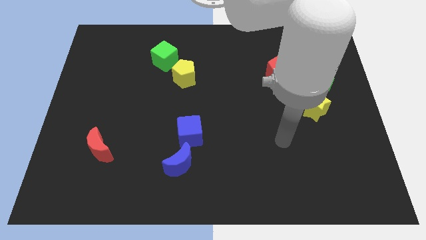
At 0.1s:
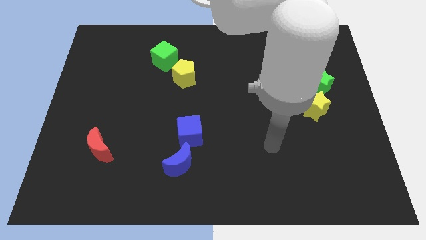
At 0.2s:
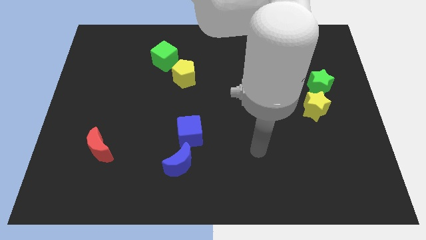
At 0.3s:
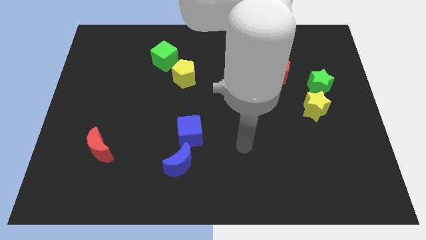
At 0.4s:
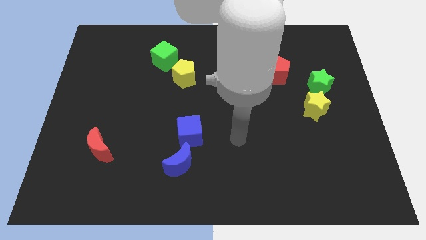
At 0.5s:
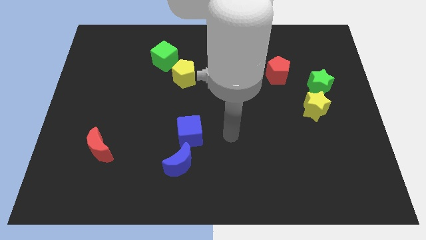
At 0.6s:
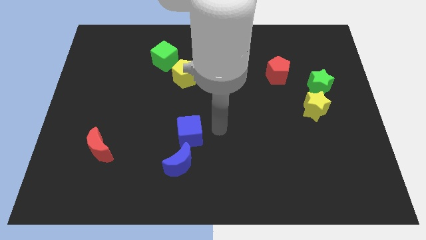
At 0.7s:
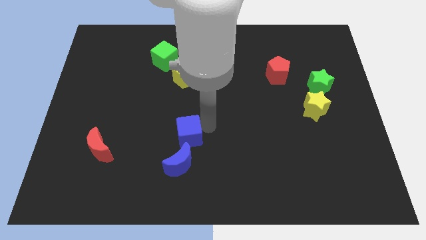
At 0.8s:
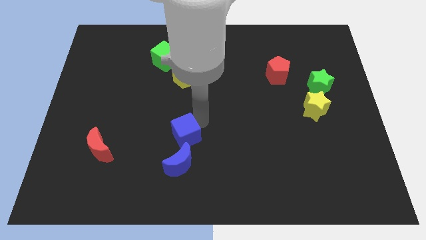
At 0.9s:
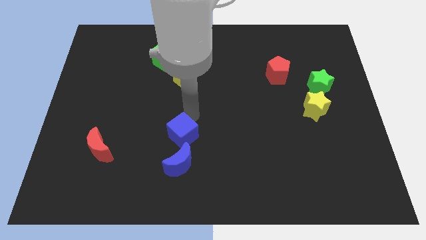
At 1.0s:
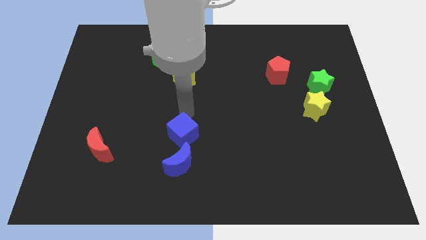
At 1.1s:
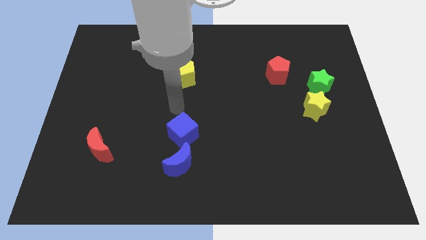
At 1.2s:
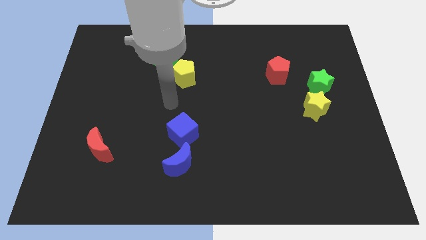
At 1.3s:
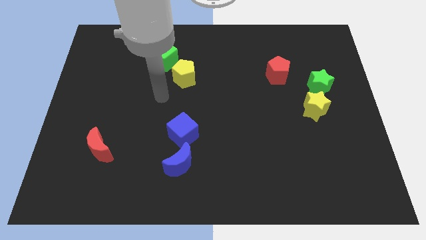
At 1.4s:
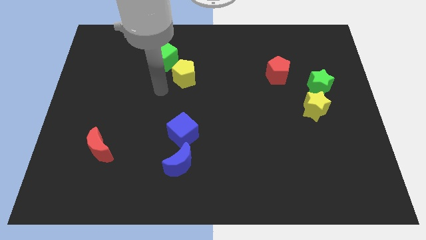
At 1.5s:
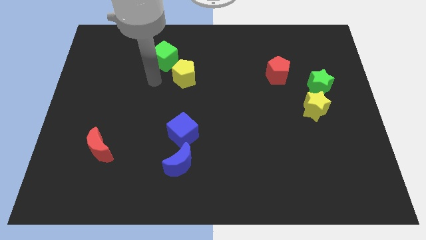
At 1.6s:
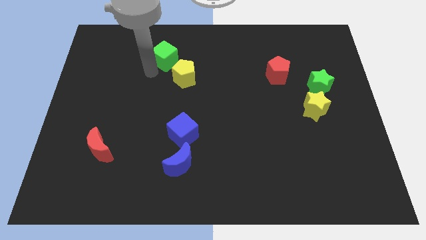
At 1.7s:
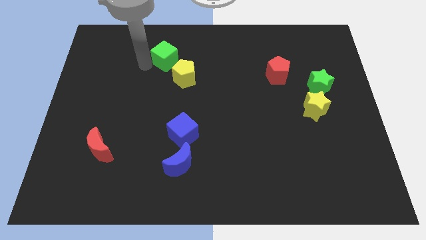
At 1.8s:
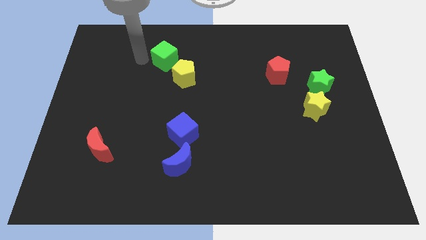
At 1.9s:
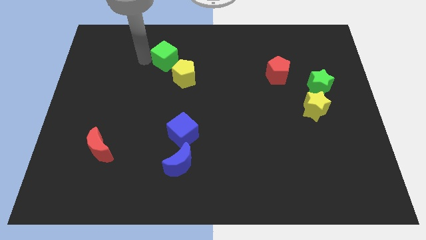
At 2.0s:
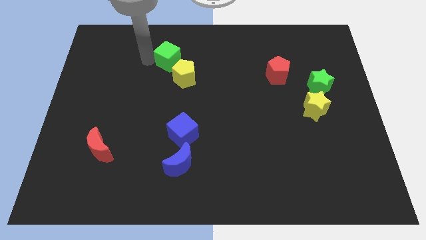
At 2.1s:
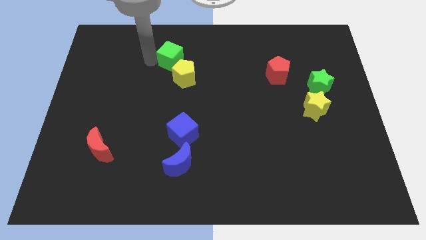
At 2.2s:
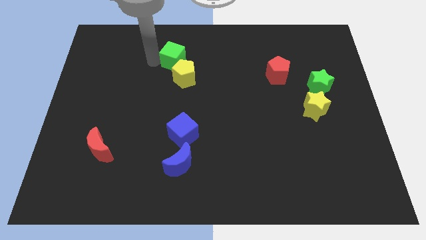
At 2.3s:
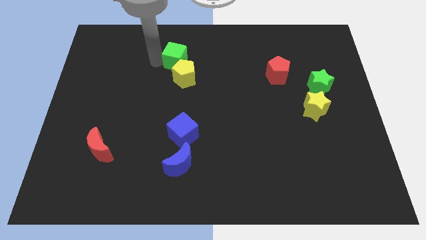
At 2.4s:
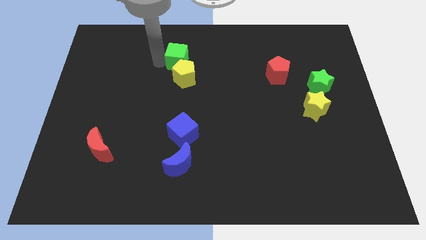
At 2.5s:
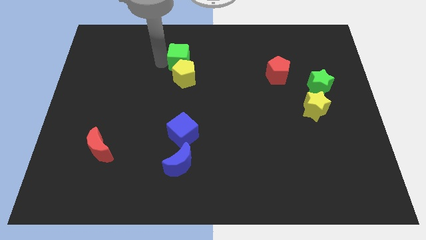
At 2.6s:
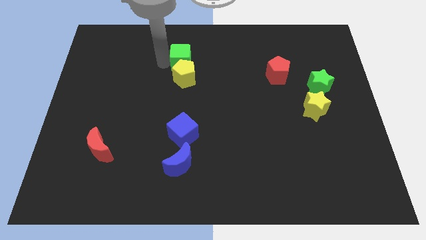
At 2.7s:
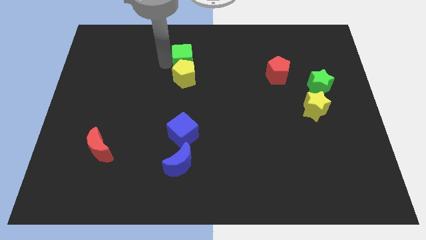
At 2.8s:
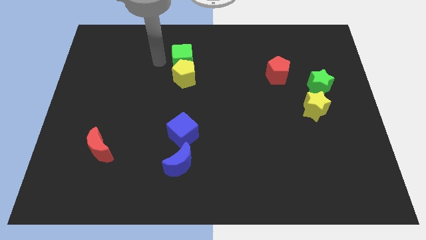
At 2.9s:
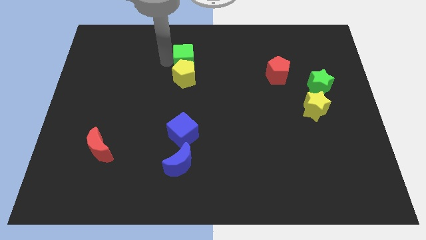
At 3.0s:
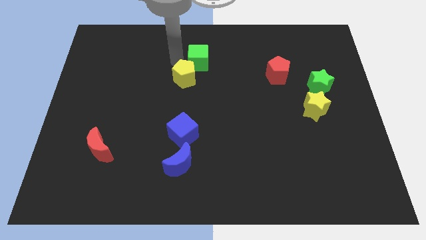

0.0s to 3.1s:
push the green cube a little right

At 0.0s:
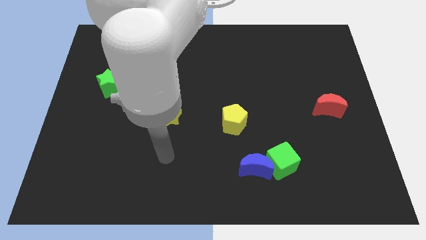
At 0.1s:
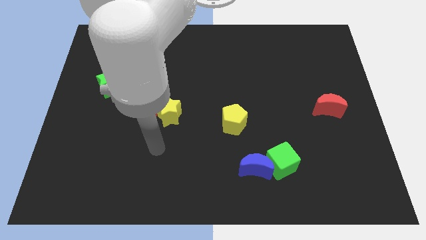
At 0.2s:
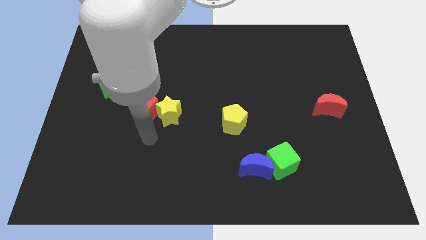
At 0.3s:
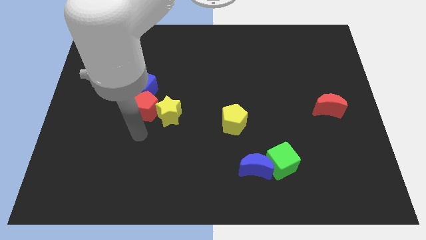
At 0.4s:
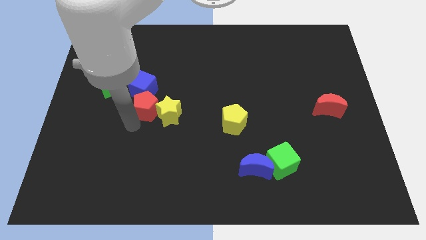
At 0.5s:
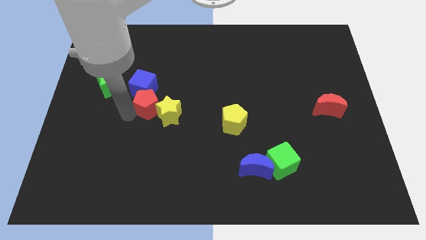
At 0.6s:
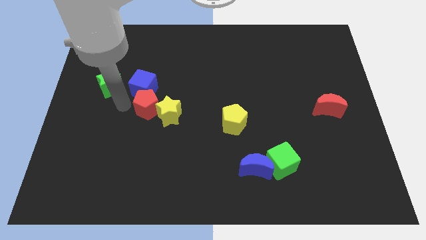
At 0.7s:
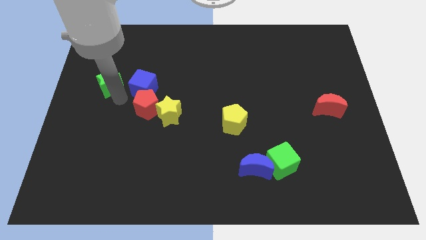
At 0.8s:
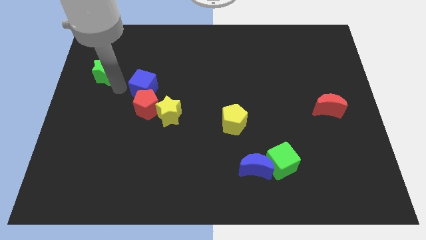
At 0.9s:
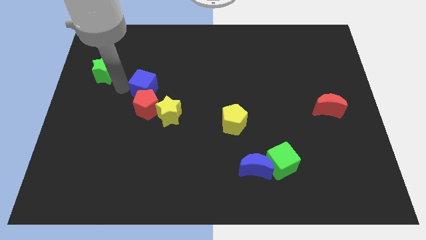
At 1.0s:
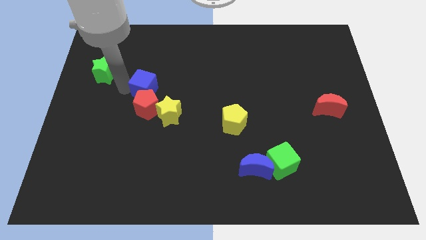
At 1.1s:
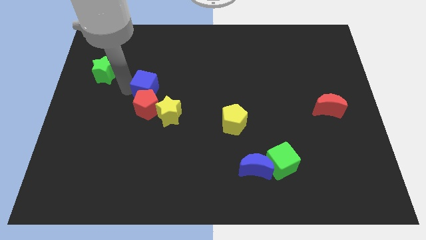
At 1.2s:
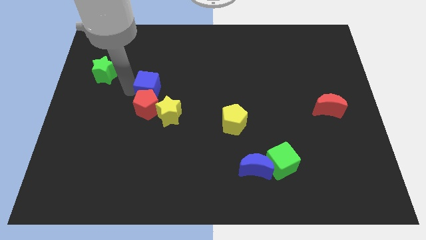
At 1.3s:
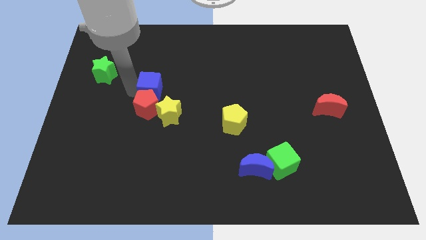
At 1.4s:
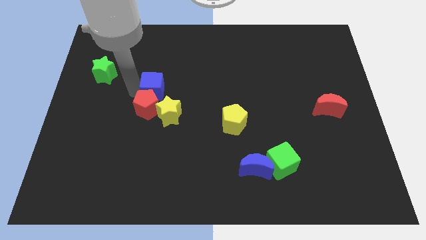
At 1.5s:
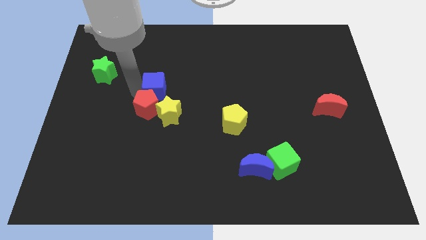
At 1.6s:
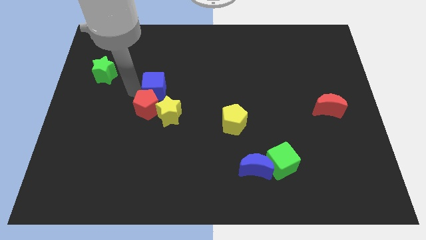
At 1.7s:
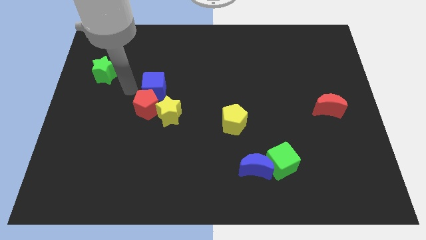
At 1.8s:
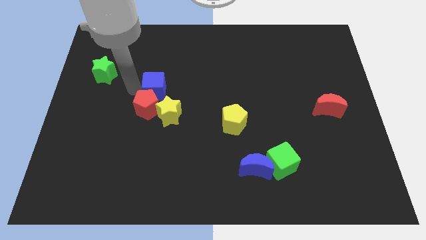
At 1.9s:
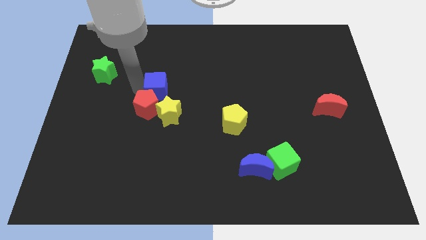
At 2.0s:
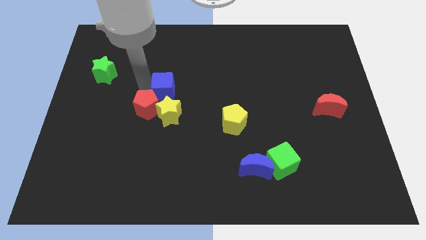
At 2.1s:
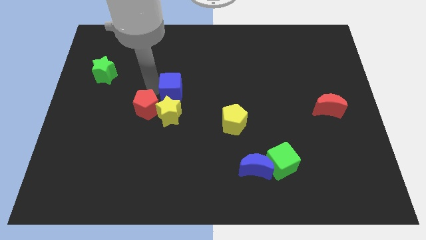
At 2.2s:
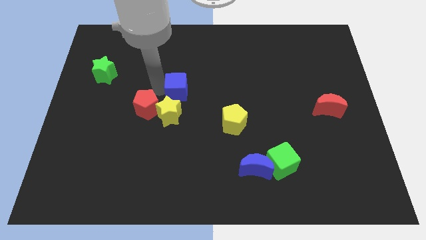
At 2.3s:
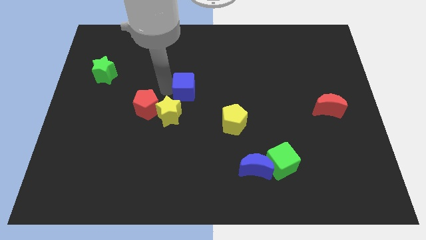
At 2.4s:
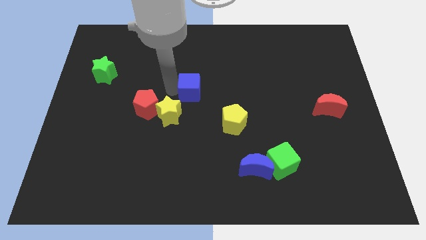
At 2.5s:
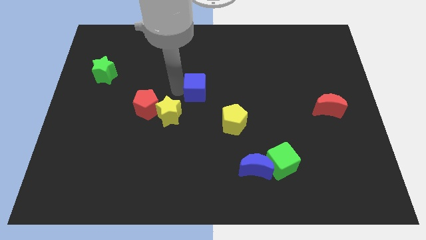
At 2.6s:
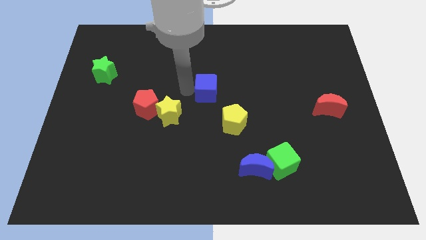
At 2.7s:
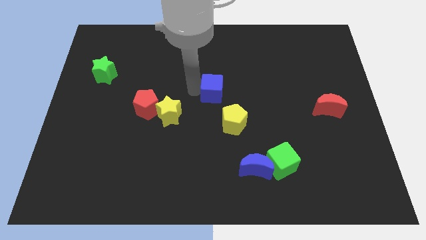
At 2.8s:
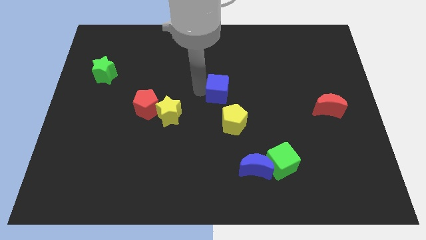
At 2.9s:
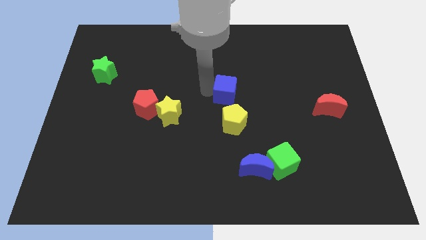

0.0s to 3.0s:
move the blue cube to the right

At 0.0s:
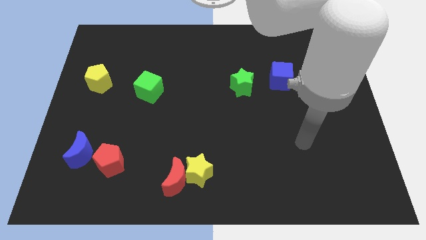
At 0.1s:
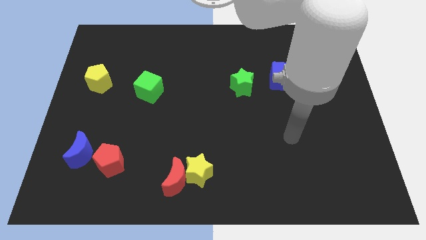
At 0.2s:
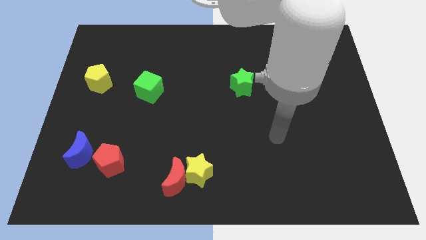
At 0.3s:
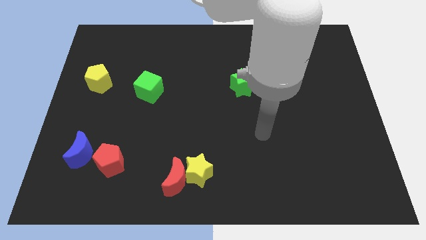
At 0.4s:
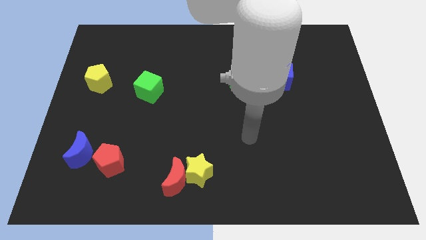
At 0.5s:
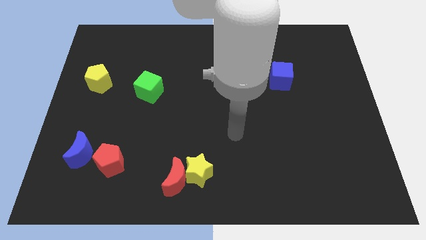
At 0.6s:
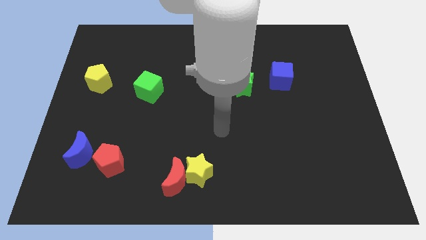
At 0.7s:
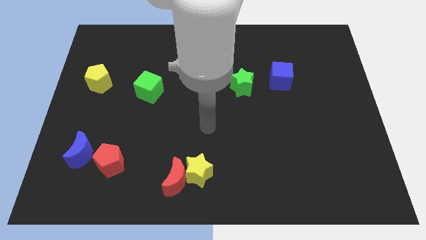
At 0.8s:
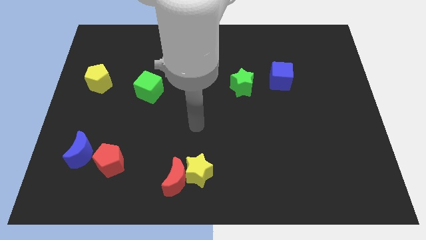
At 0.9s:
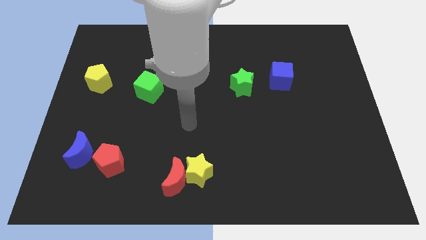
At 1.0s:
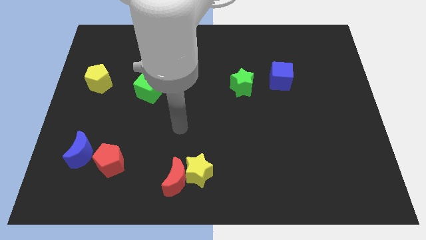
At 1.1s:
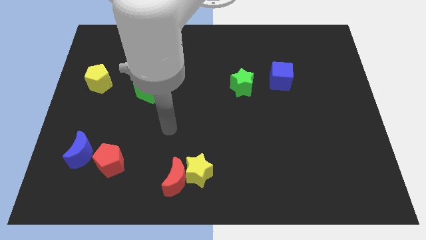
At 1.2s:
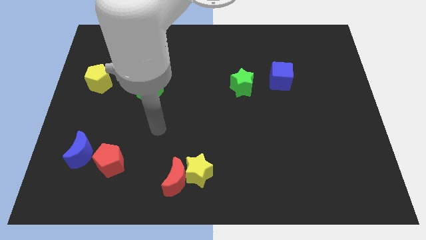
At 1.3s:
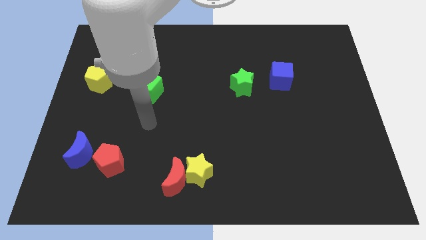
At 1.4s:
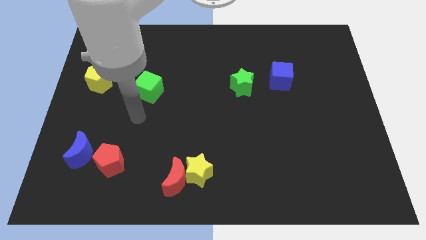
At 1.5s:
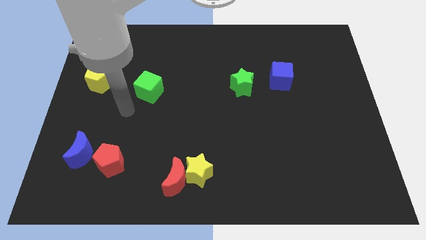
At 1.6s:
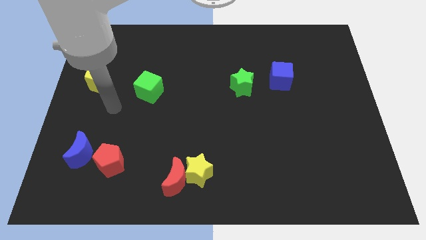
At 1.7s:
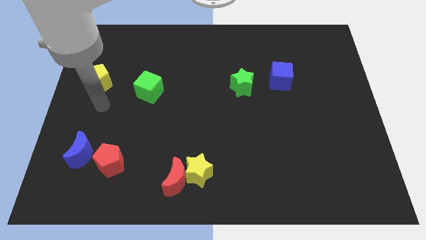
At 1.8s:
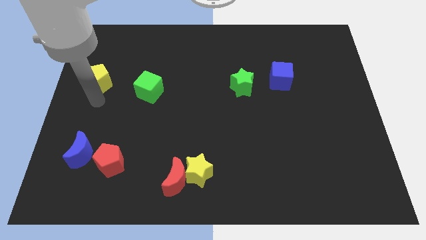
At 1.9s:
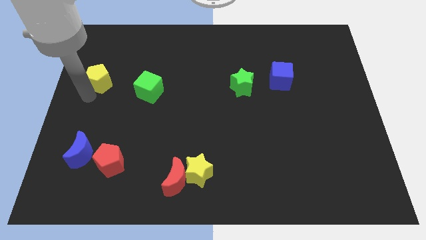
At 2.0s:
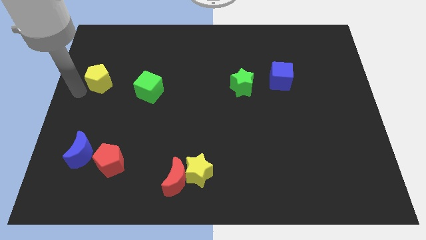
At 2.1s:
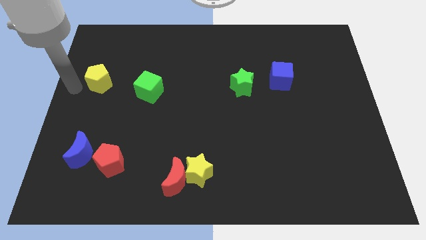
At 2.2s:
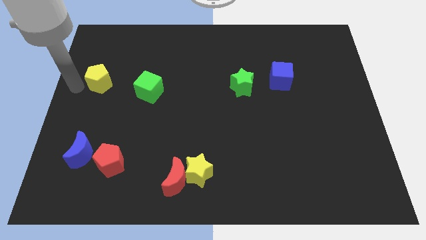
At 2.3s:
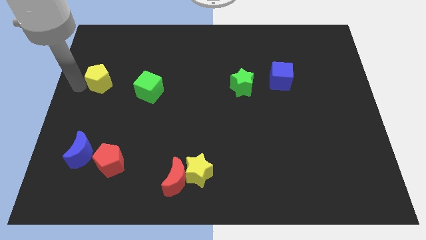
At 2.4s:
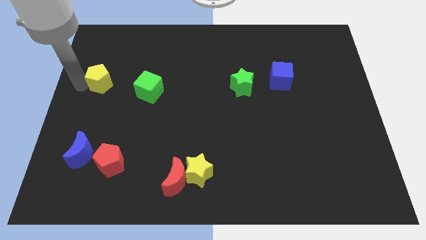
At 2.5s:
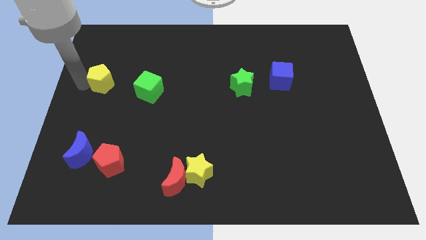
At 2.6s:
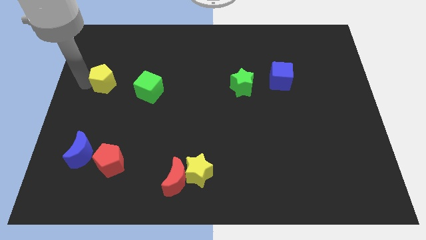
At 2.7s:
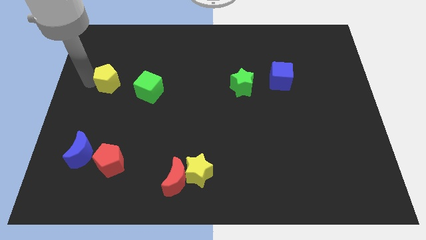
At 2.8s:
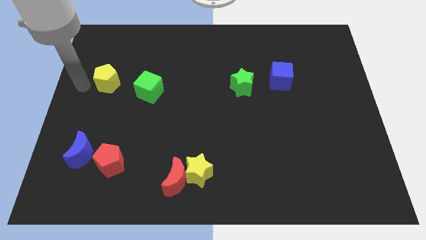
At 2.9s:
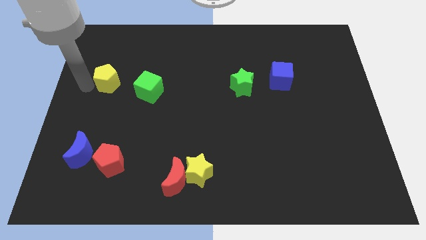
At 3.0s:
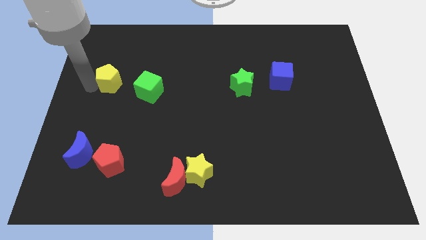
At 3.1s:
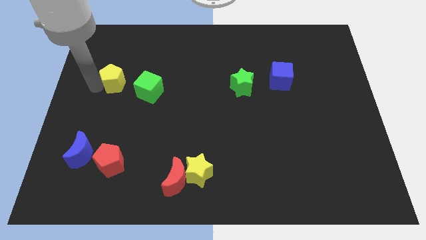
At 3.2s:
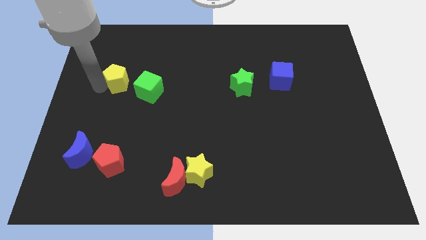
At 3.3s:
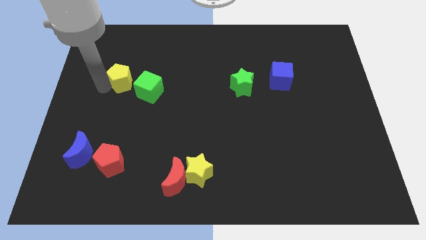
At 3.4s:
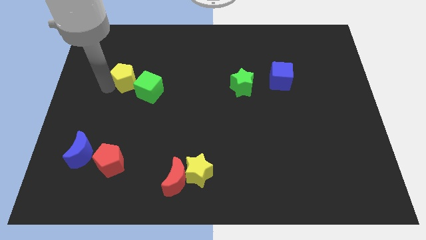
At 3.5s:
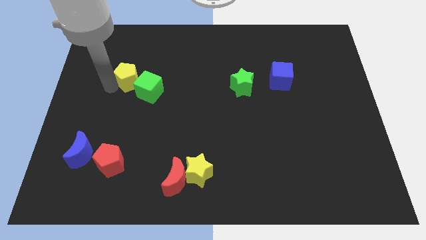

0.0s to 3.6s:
slightly push the yellow pentagon right
